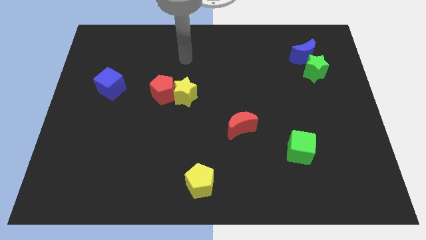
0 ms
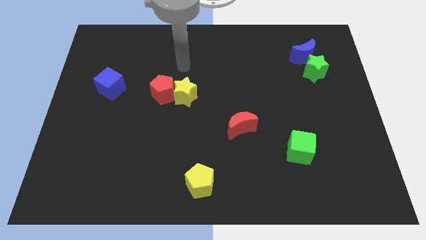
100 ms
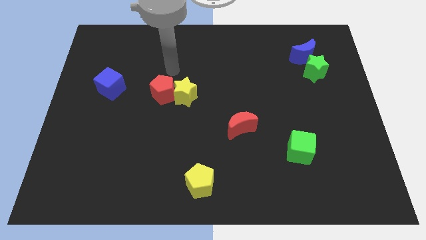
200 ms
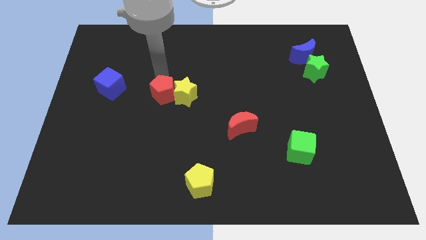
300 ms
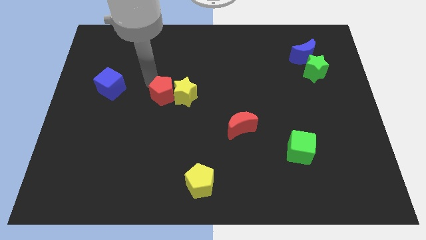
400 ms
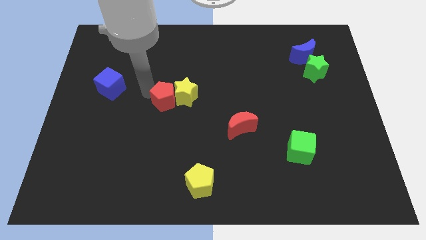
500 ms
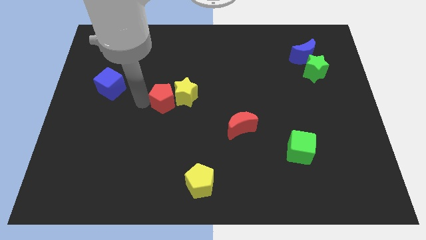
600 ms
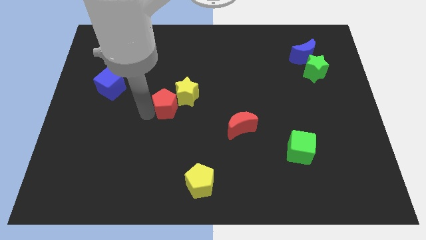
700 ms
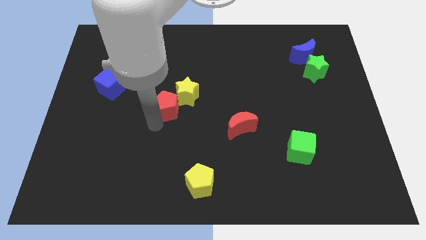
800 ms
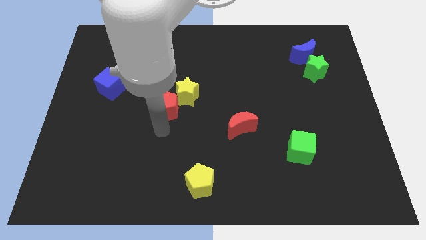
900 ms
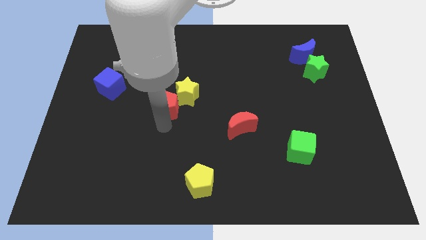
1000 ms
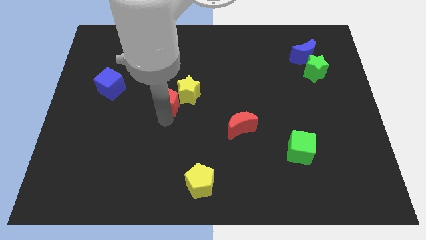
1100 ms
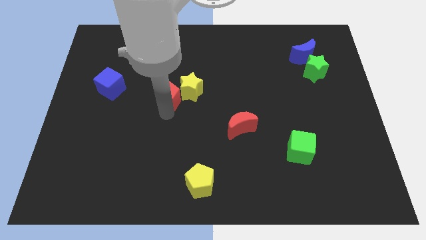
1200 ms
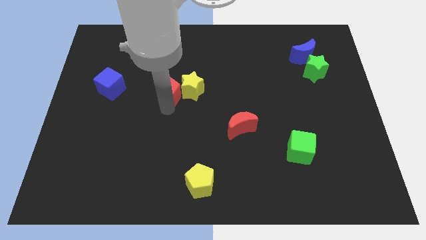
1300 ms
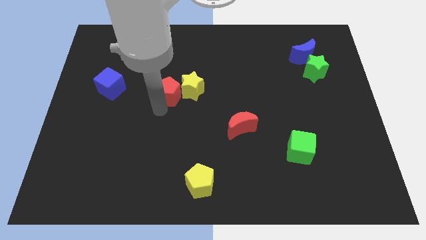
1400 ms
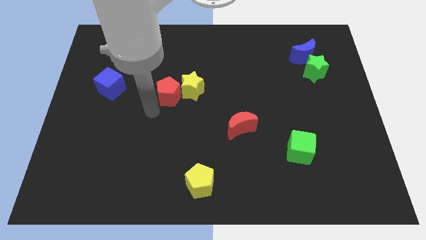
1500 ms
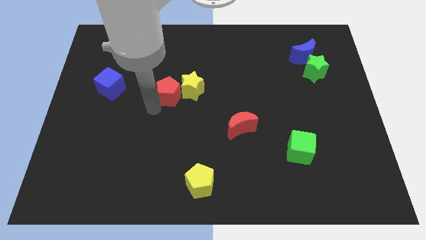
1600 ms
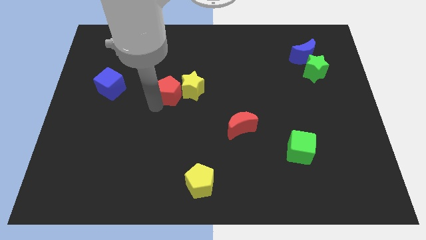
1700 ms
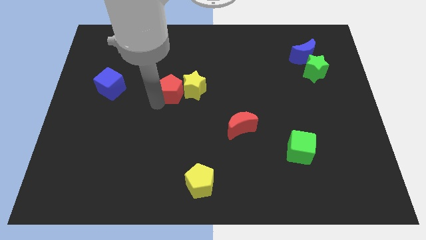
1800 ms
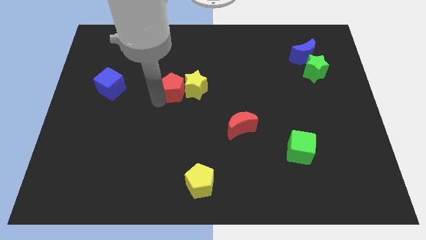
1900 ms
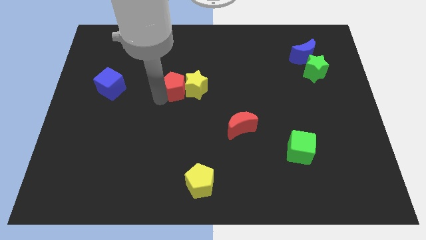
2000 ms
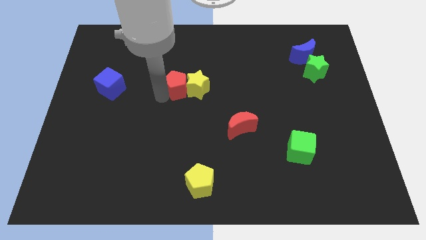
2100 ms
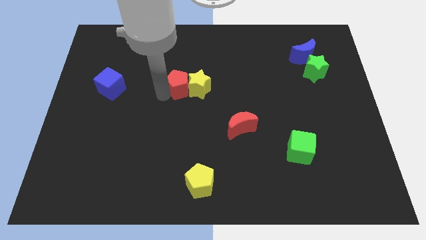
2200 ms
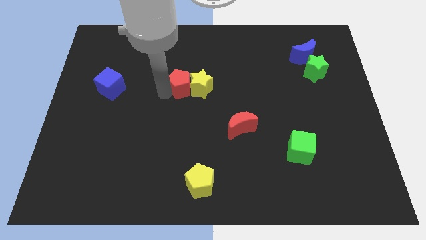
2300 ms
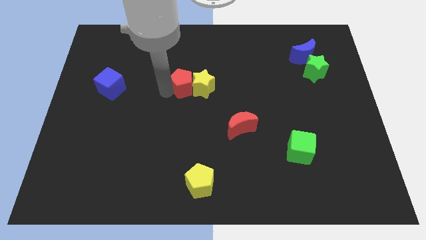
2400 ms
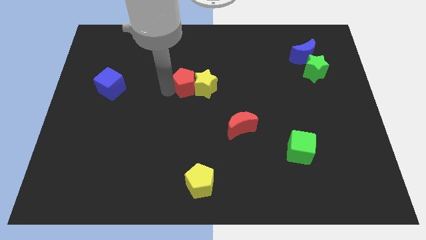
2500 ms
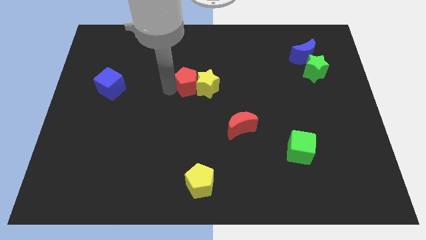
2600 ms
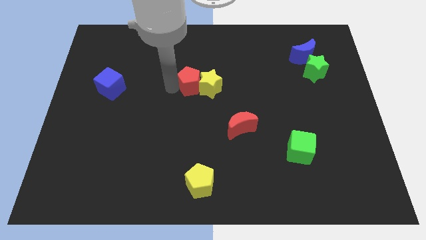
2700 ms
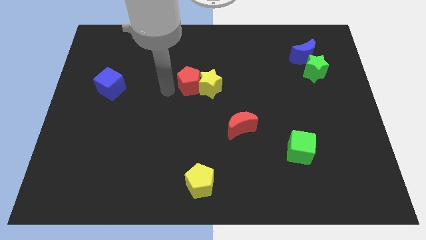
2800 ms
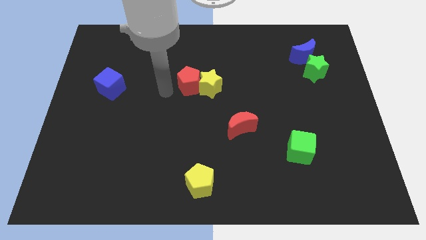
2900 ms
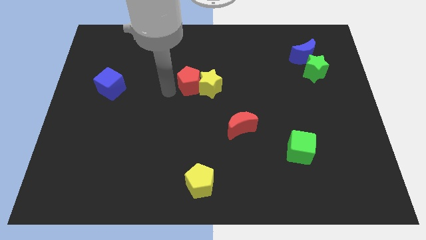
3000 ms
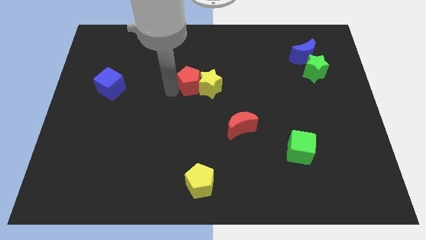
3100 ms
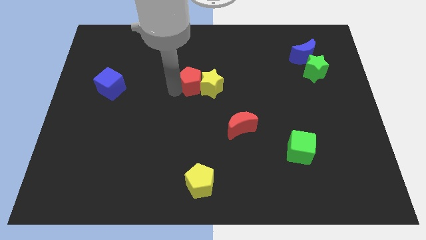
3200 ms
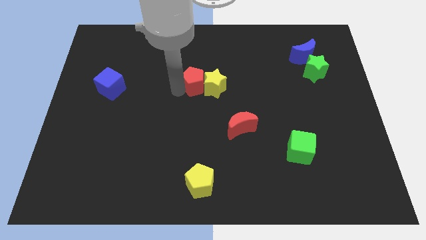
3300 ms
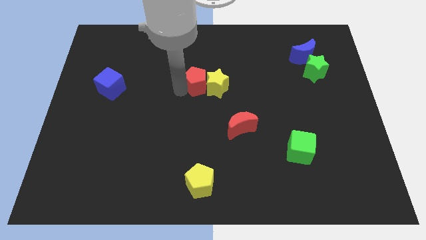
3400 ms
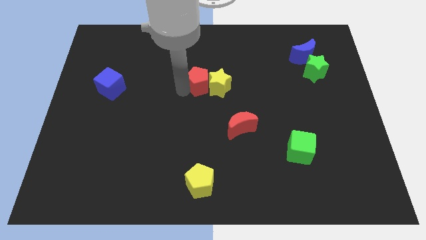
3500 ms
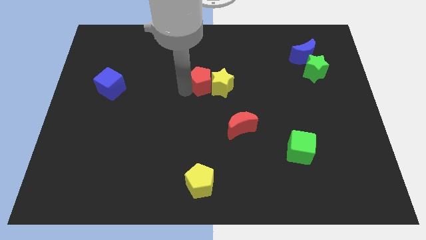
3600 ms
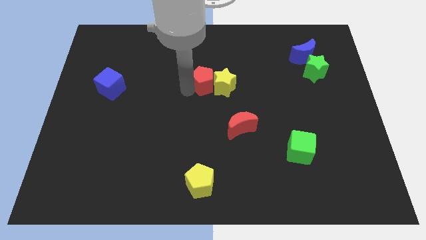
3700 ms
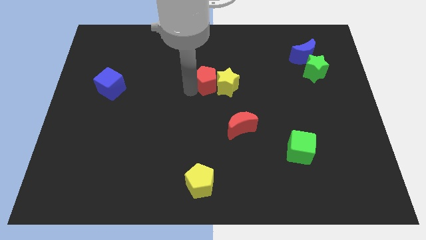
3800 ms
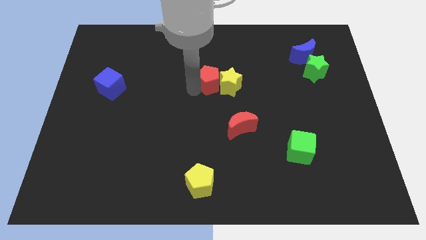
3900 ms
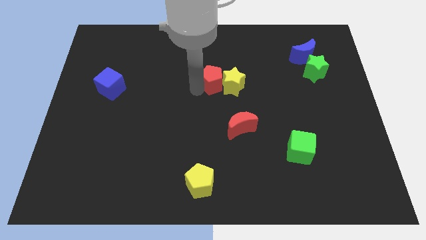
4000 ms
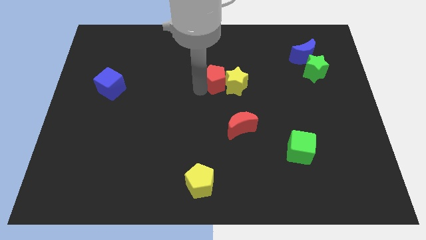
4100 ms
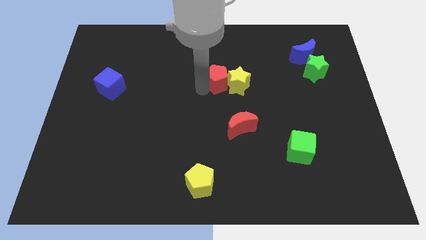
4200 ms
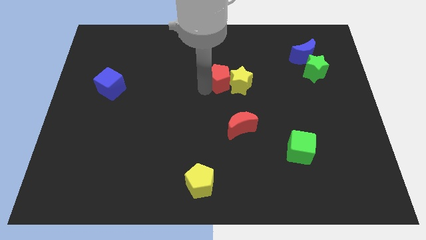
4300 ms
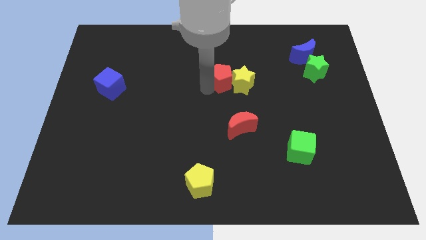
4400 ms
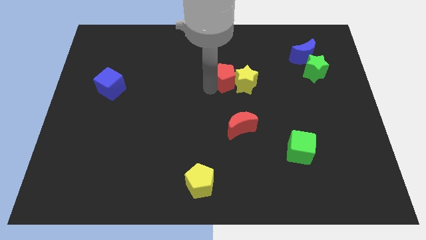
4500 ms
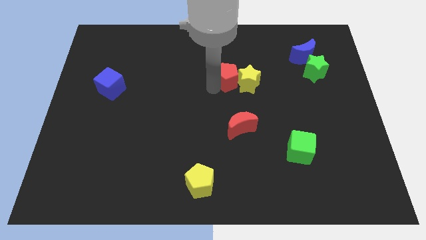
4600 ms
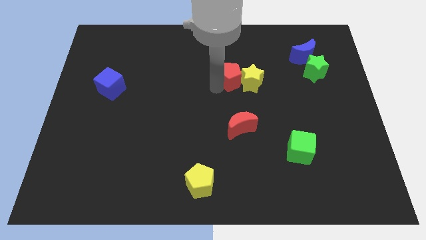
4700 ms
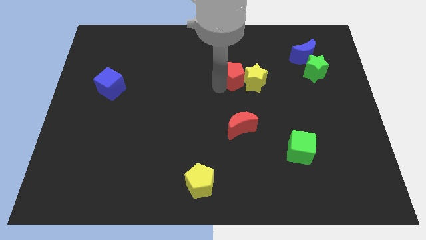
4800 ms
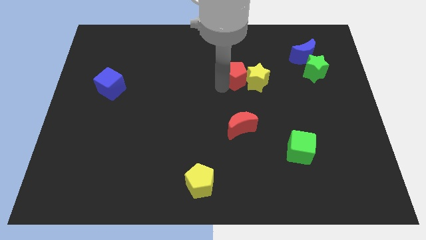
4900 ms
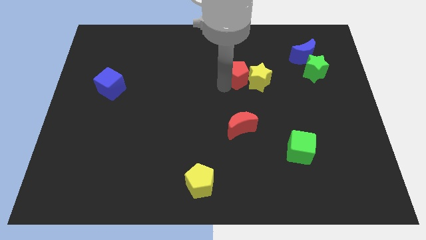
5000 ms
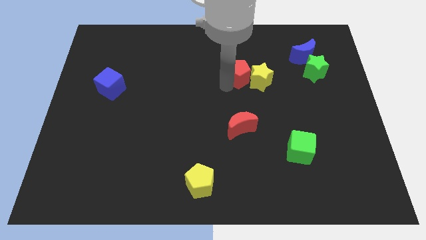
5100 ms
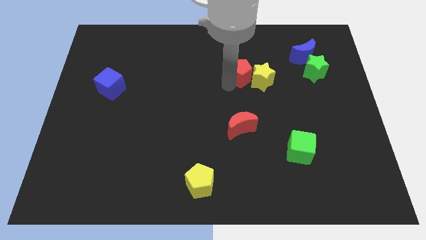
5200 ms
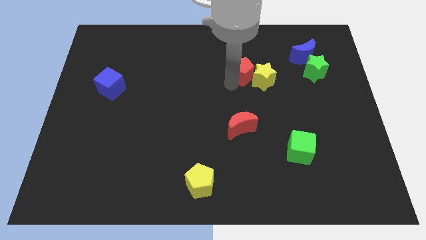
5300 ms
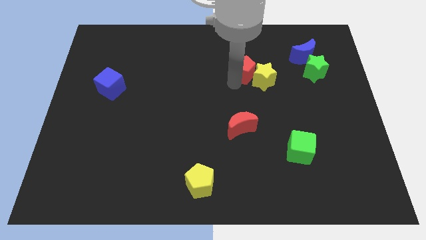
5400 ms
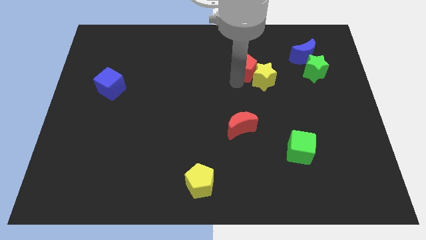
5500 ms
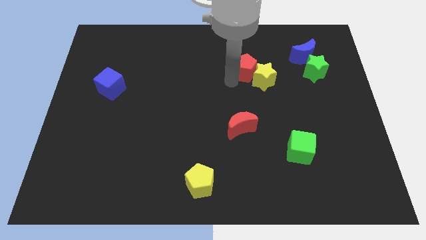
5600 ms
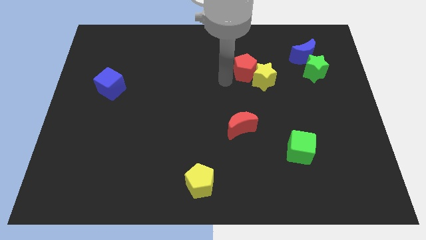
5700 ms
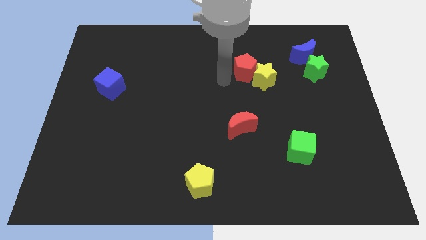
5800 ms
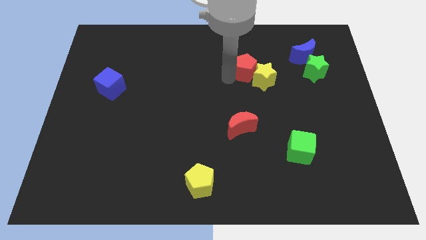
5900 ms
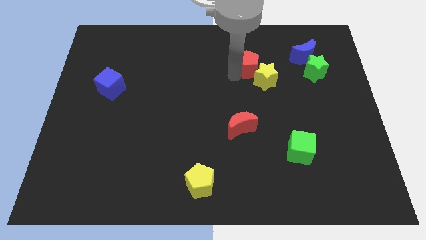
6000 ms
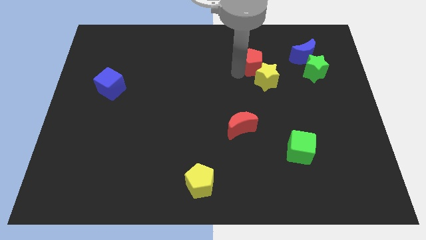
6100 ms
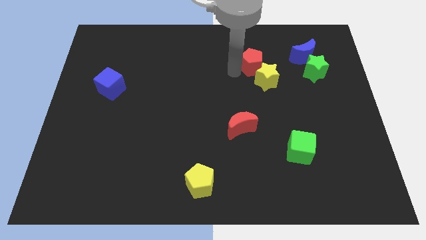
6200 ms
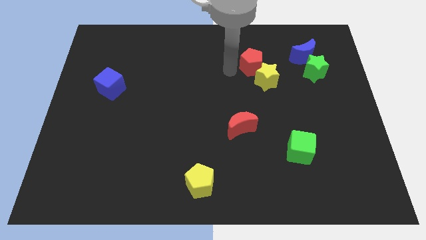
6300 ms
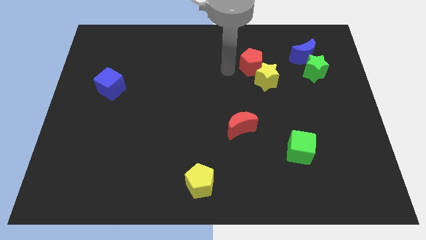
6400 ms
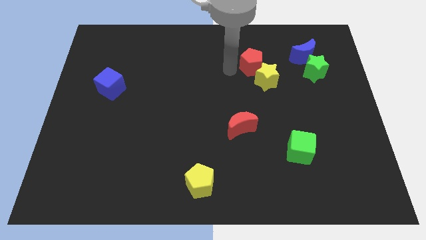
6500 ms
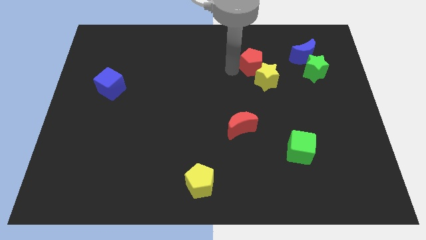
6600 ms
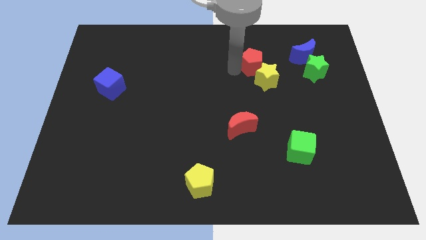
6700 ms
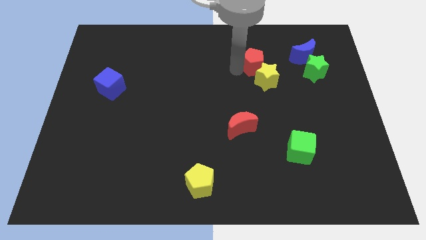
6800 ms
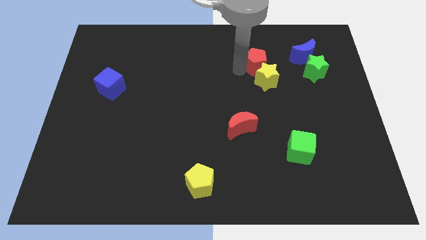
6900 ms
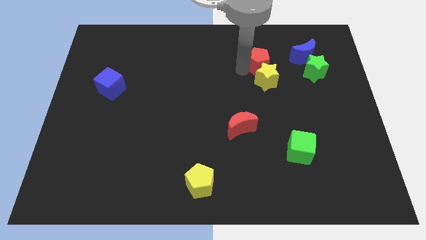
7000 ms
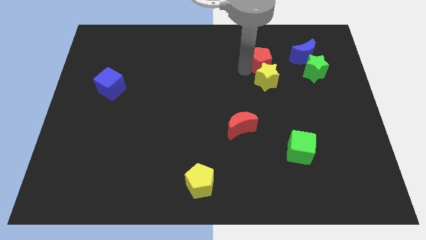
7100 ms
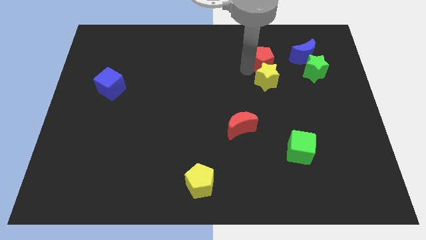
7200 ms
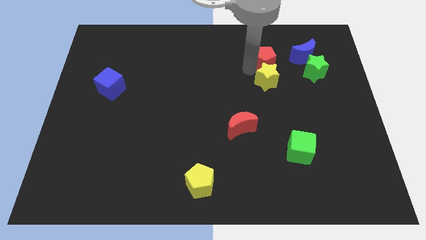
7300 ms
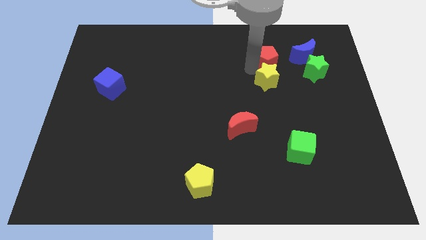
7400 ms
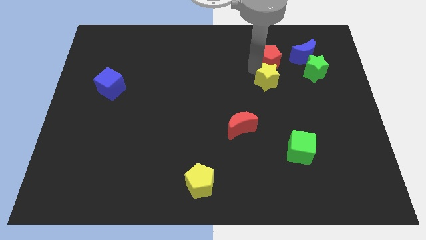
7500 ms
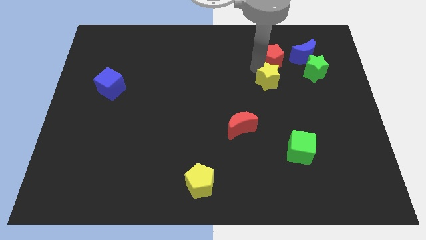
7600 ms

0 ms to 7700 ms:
put the red pentagon diagonally up and to the left of the green star

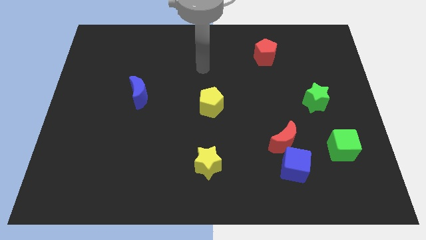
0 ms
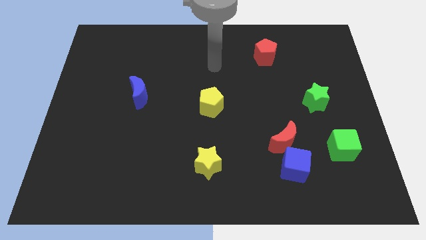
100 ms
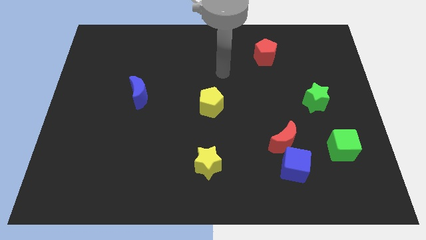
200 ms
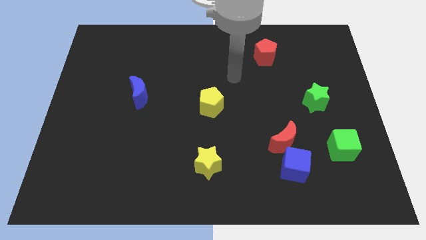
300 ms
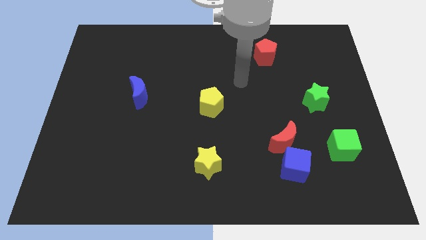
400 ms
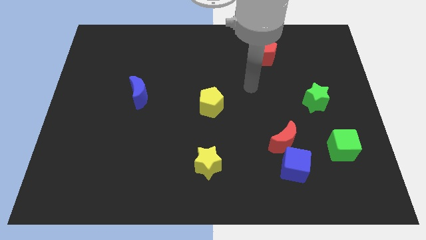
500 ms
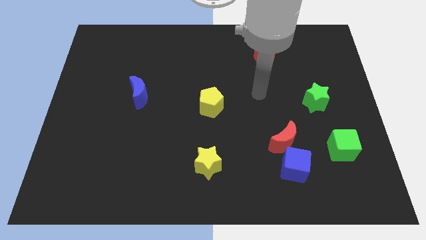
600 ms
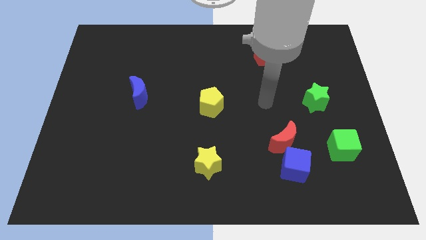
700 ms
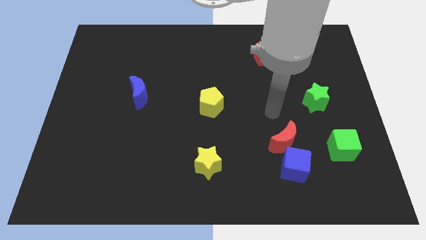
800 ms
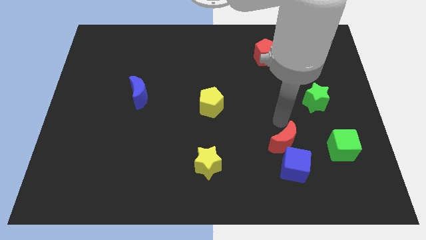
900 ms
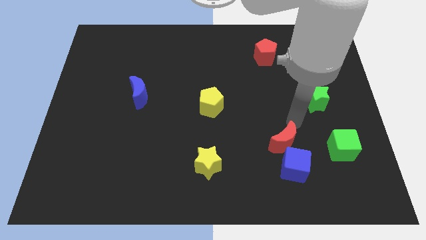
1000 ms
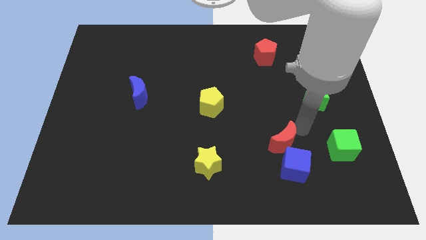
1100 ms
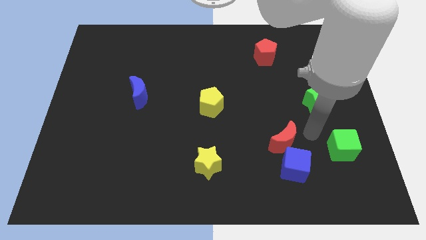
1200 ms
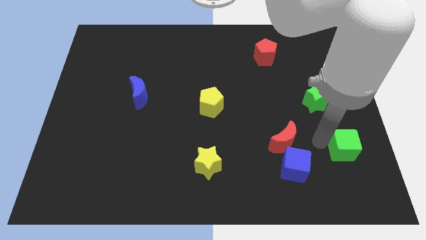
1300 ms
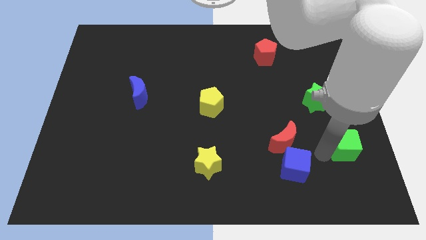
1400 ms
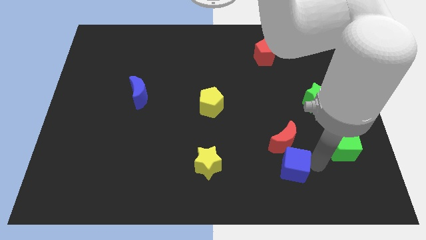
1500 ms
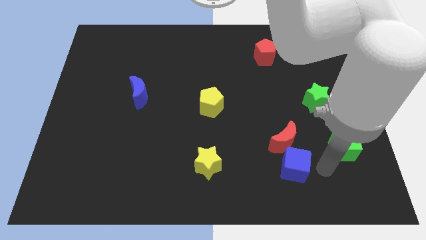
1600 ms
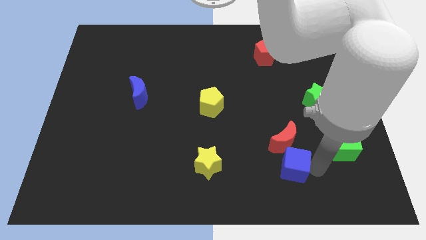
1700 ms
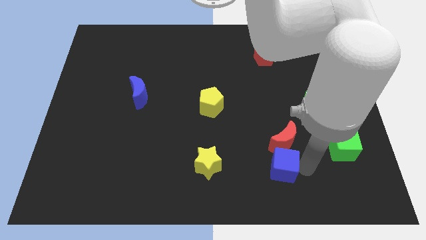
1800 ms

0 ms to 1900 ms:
put the blue cube just right of the yellow star
